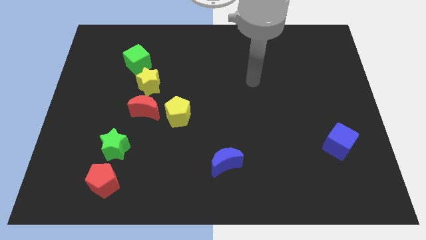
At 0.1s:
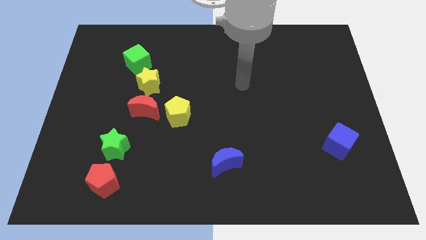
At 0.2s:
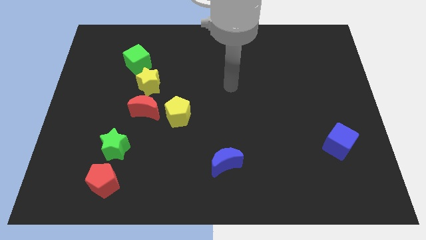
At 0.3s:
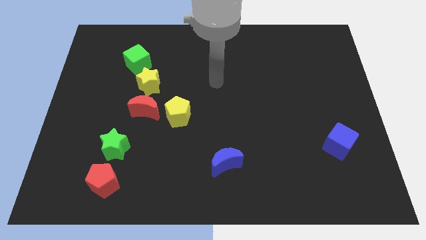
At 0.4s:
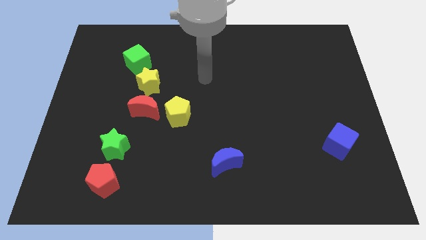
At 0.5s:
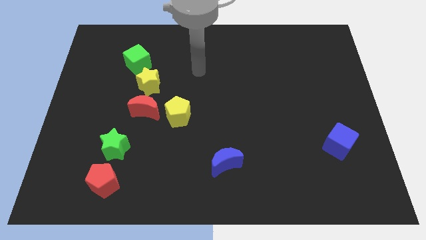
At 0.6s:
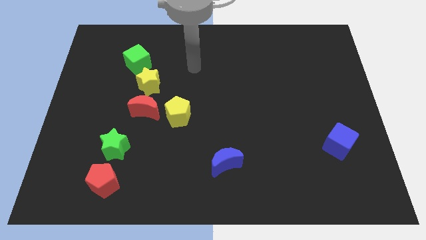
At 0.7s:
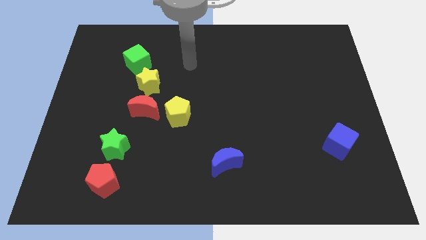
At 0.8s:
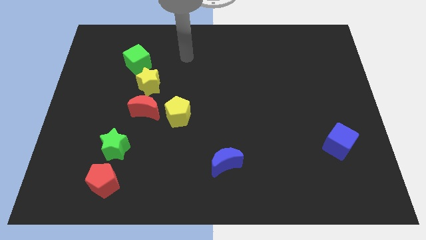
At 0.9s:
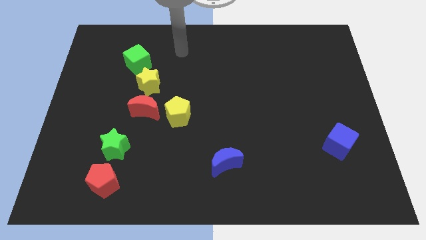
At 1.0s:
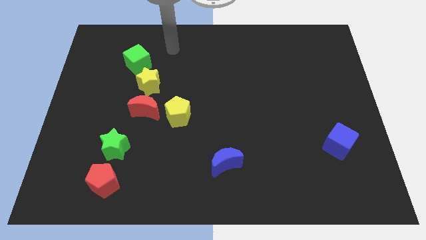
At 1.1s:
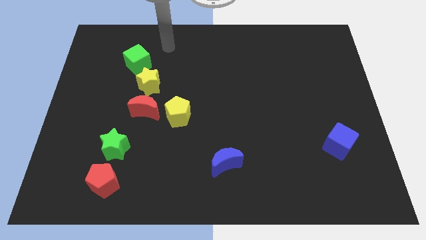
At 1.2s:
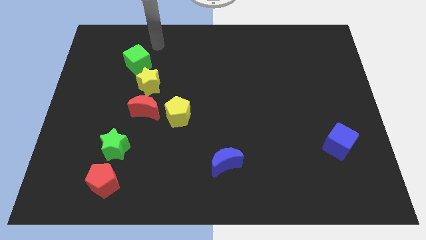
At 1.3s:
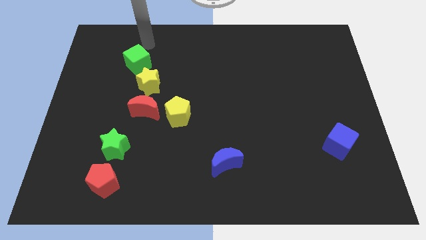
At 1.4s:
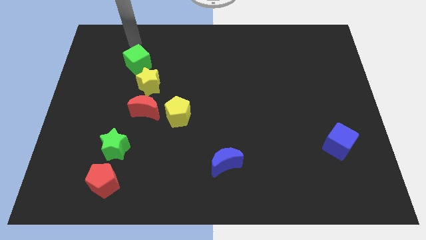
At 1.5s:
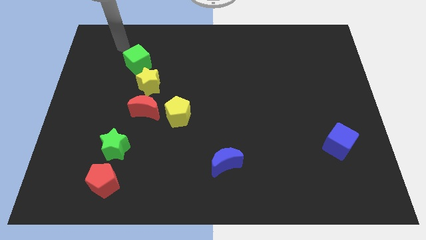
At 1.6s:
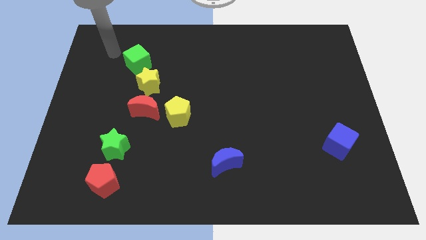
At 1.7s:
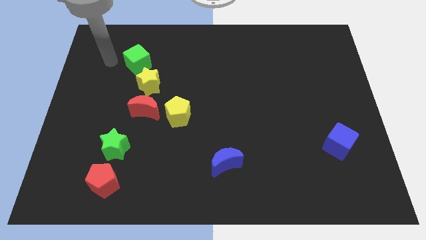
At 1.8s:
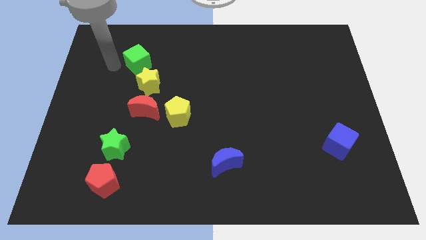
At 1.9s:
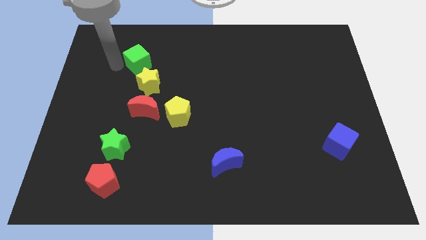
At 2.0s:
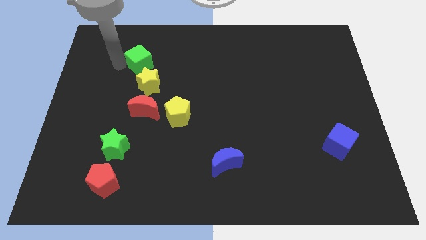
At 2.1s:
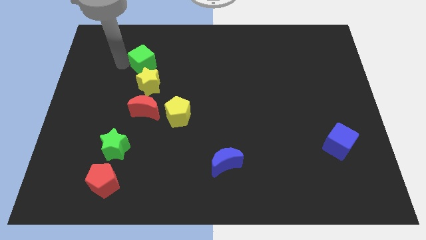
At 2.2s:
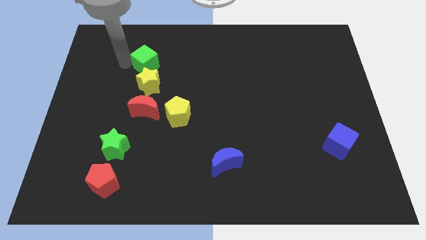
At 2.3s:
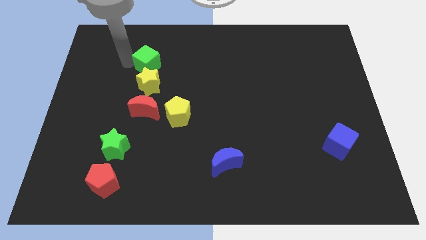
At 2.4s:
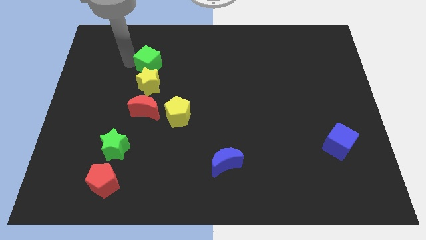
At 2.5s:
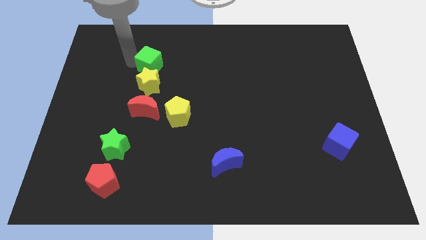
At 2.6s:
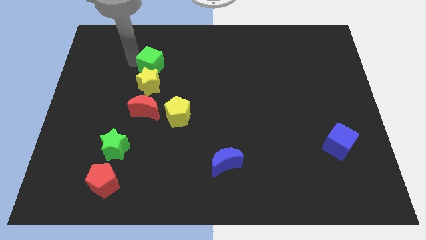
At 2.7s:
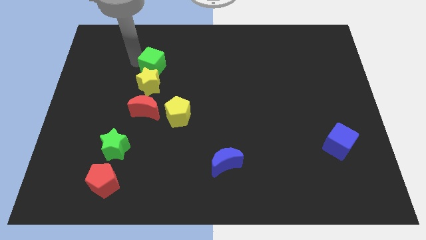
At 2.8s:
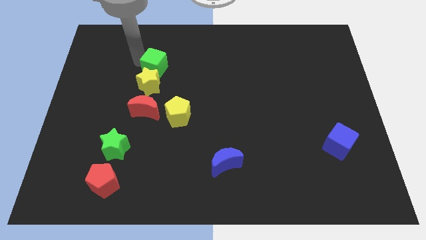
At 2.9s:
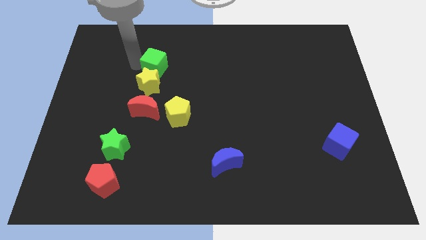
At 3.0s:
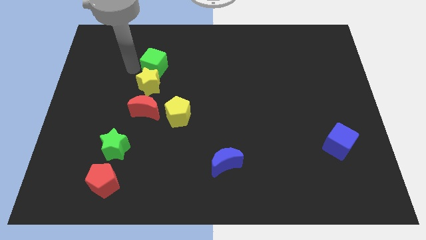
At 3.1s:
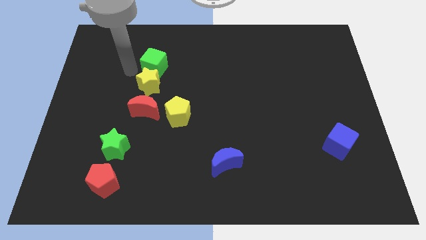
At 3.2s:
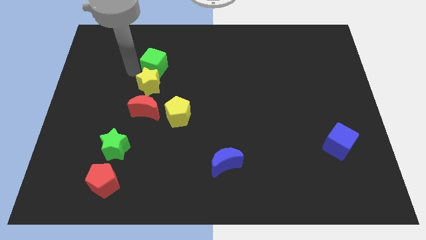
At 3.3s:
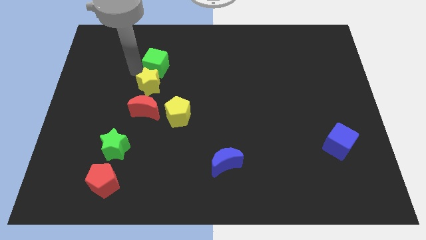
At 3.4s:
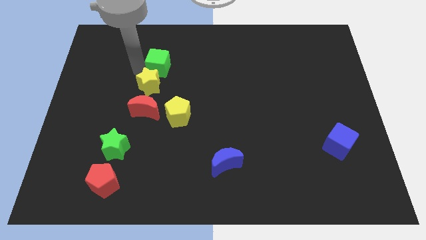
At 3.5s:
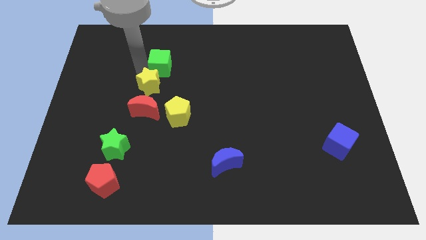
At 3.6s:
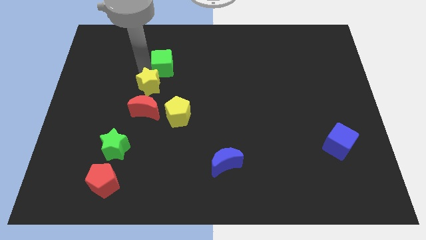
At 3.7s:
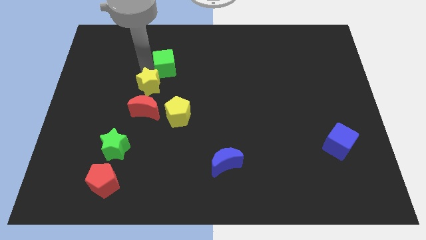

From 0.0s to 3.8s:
slightly push the green cube to the right

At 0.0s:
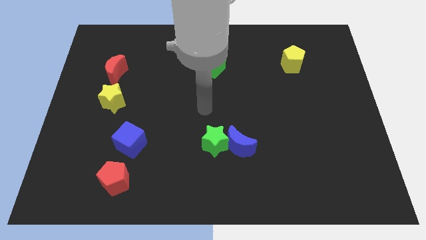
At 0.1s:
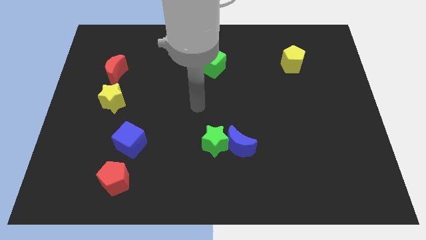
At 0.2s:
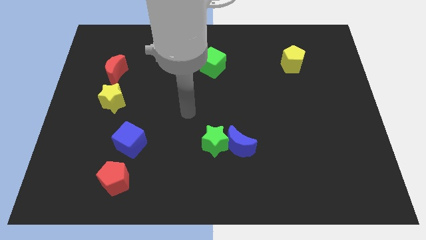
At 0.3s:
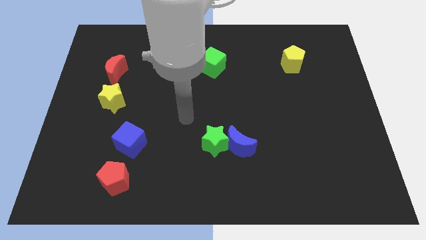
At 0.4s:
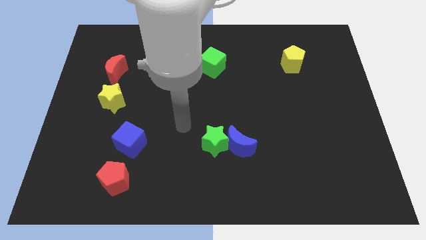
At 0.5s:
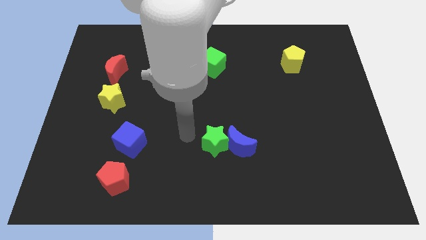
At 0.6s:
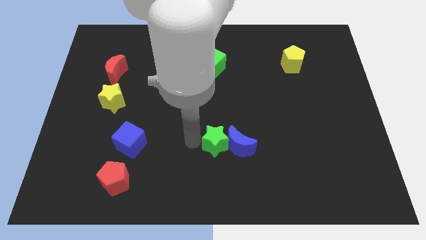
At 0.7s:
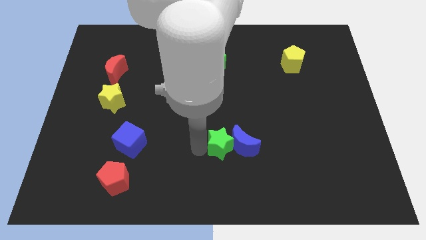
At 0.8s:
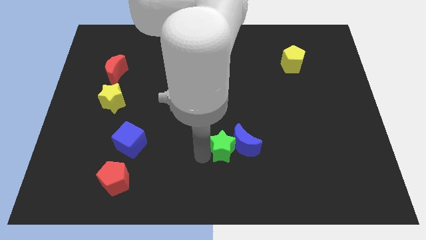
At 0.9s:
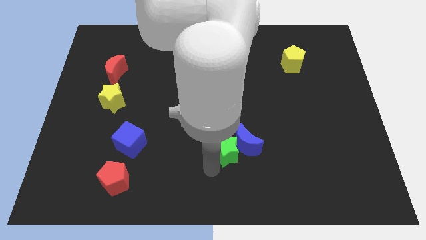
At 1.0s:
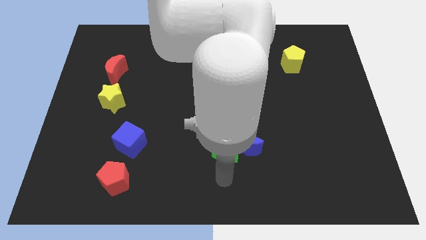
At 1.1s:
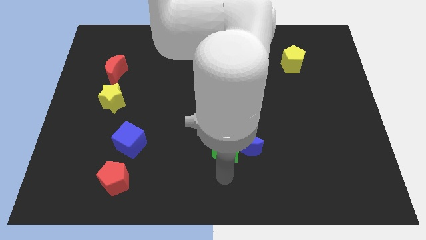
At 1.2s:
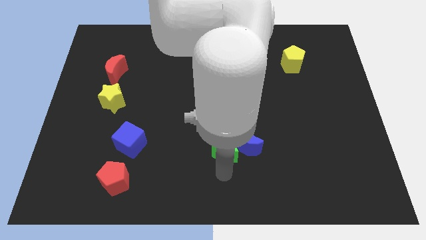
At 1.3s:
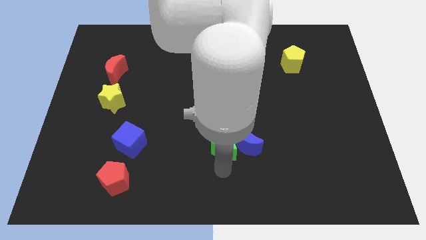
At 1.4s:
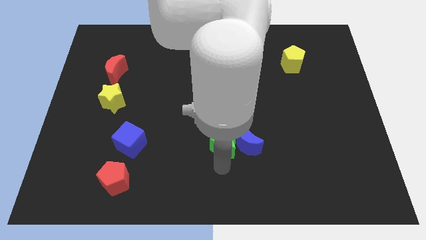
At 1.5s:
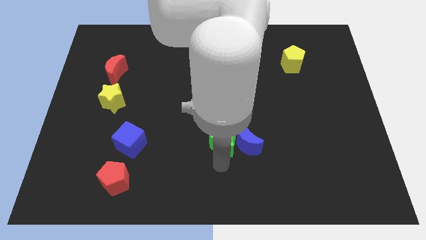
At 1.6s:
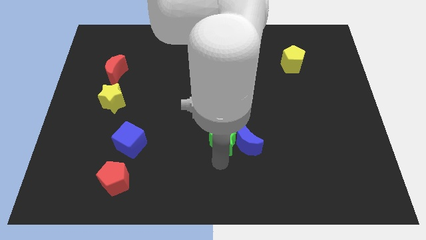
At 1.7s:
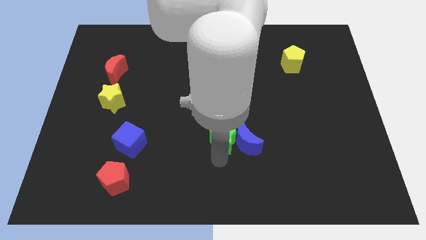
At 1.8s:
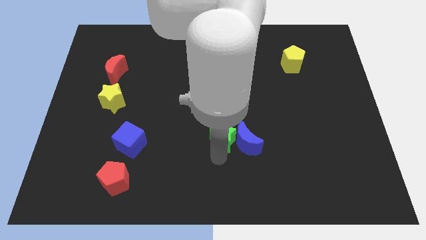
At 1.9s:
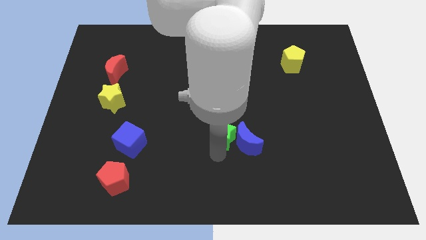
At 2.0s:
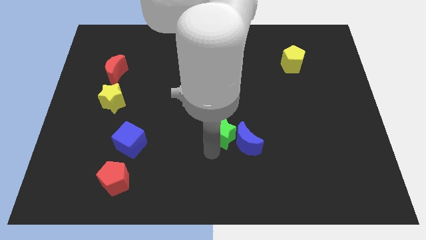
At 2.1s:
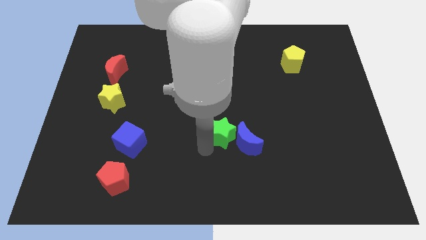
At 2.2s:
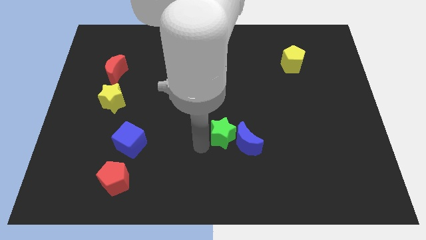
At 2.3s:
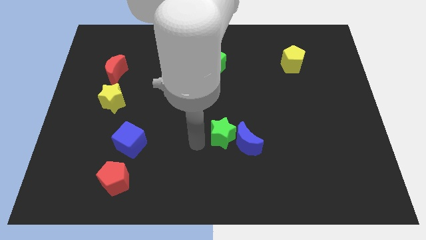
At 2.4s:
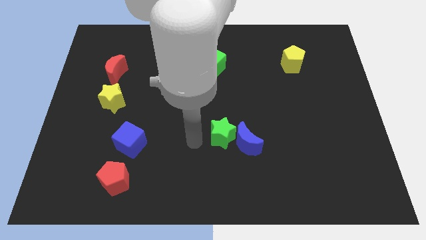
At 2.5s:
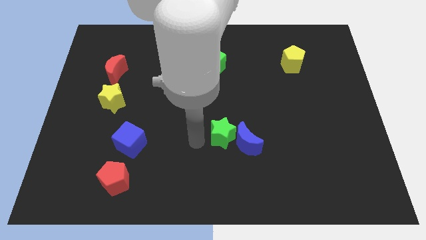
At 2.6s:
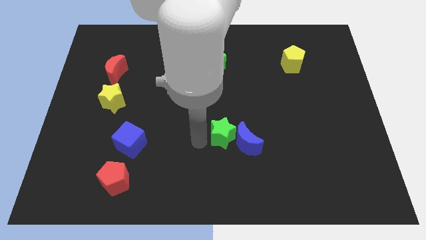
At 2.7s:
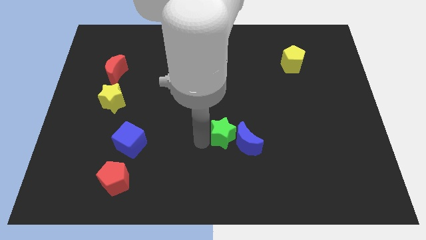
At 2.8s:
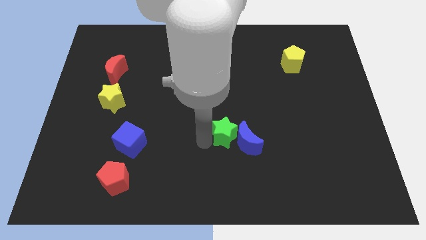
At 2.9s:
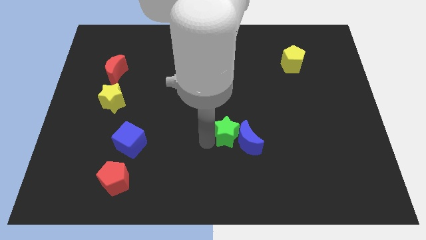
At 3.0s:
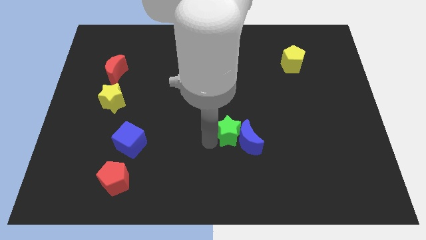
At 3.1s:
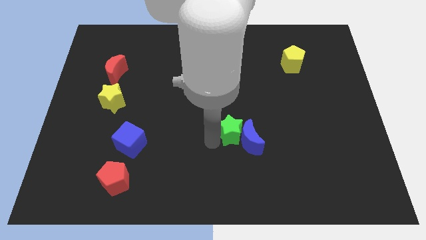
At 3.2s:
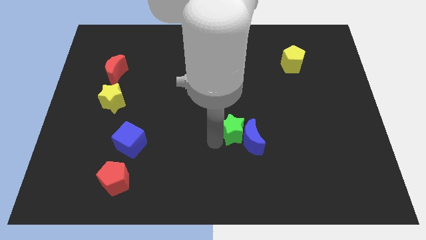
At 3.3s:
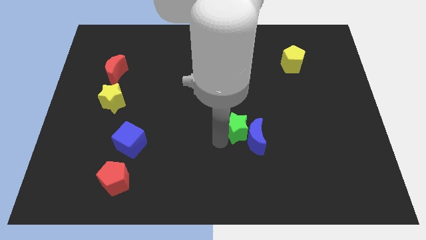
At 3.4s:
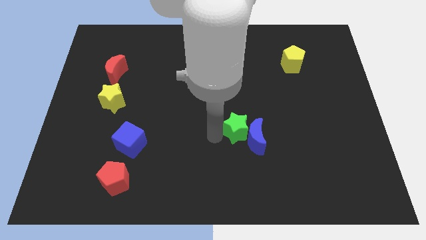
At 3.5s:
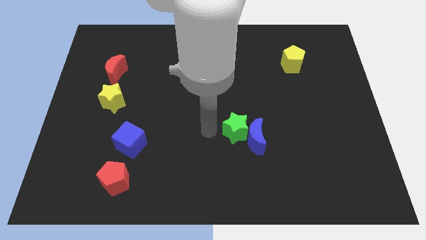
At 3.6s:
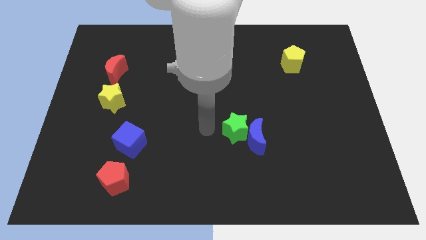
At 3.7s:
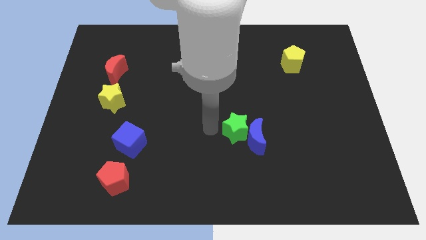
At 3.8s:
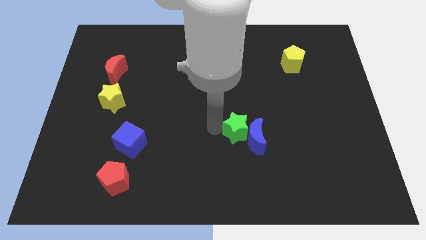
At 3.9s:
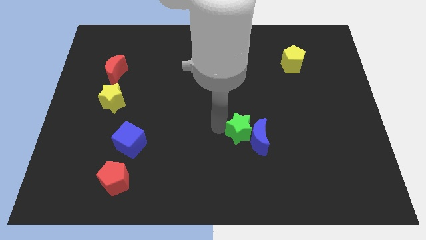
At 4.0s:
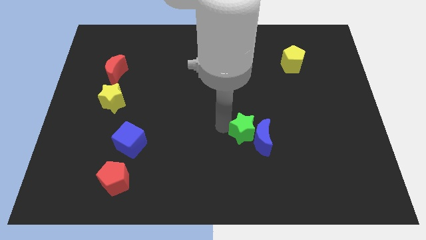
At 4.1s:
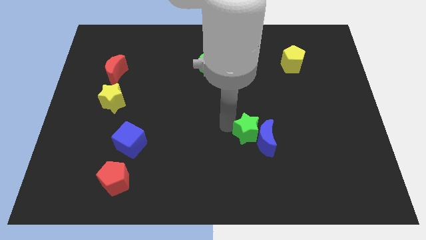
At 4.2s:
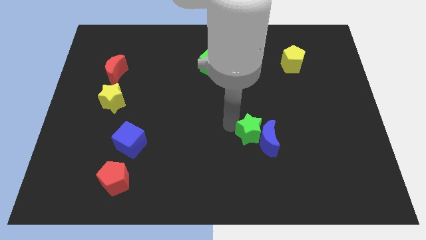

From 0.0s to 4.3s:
slightly push the green star to the right

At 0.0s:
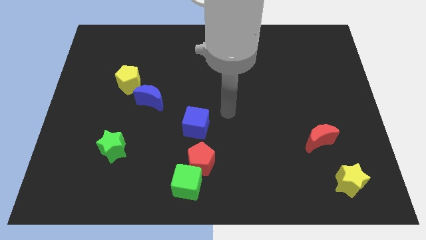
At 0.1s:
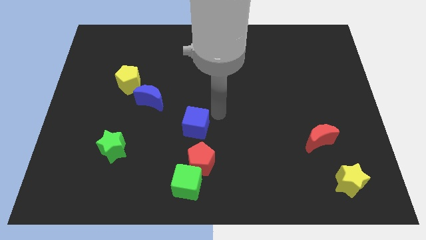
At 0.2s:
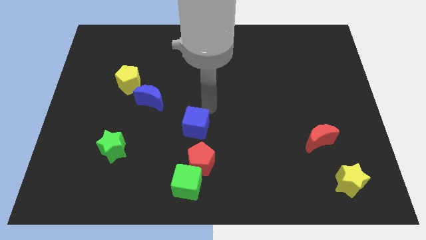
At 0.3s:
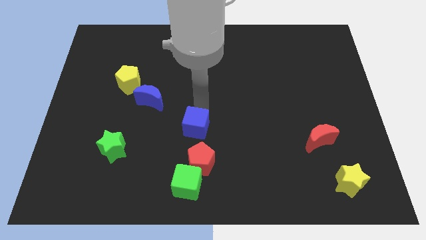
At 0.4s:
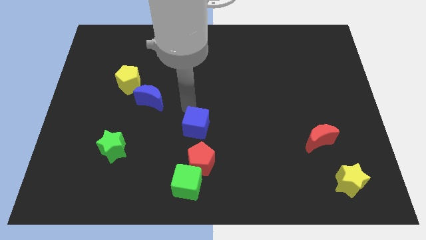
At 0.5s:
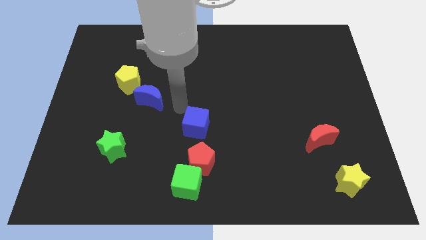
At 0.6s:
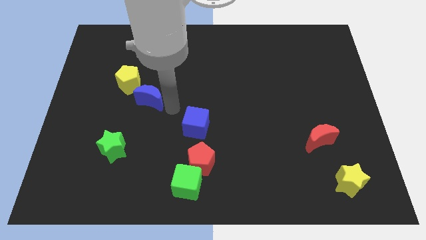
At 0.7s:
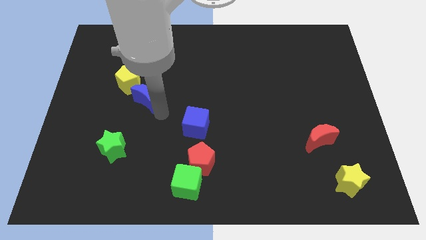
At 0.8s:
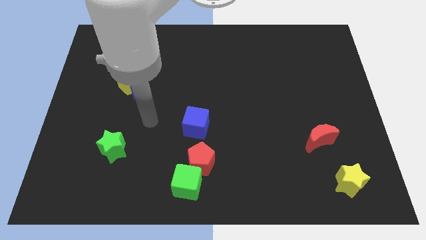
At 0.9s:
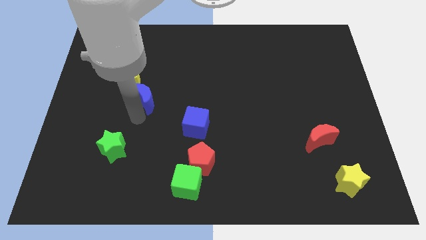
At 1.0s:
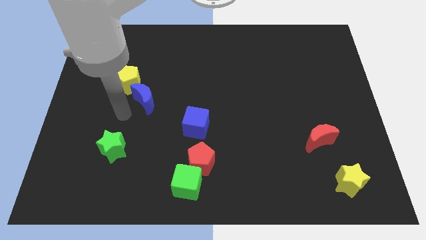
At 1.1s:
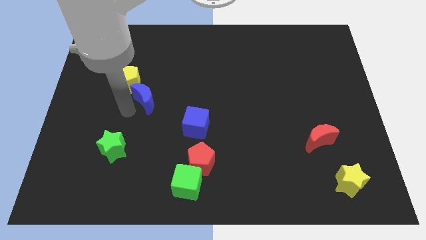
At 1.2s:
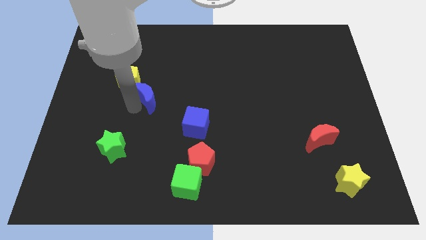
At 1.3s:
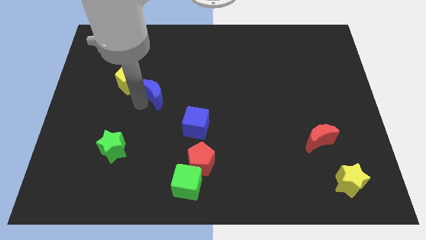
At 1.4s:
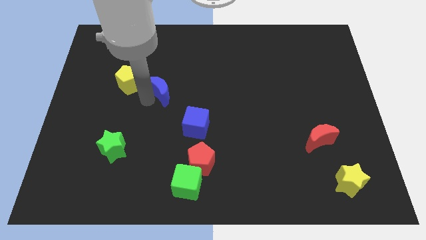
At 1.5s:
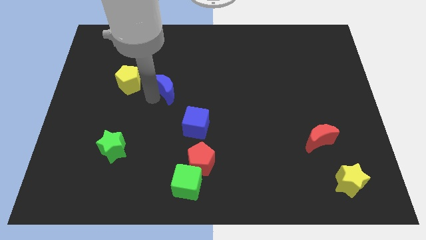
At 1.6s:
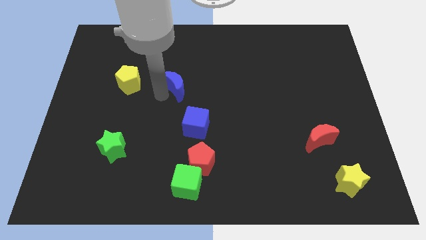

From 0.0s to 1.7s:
move the blue moon up and to the right slightly
